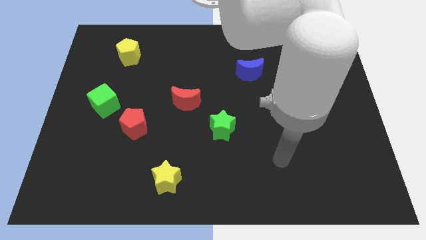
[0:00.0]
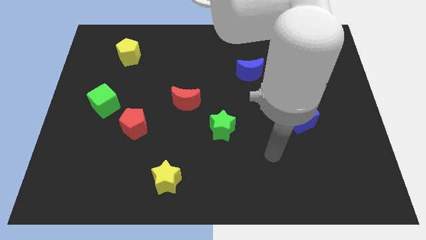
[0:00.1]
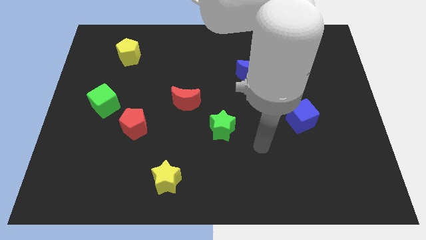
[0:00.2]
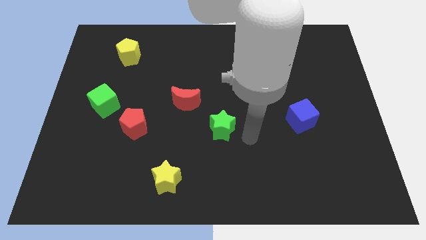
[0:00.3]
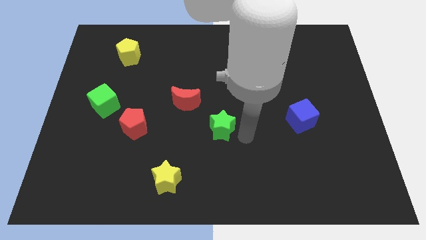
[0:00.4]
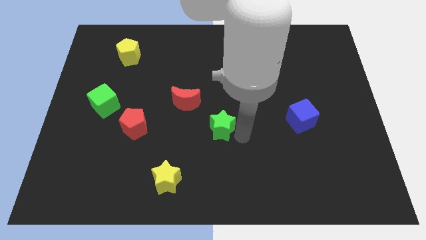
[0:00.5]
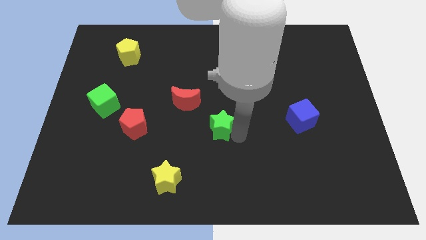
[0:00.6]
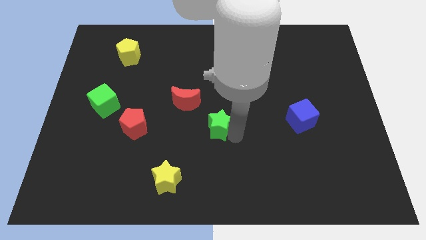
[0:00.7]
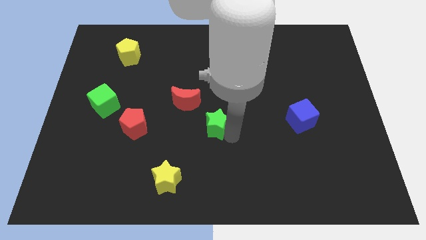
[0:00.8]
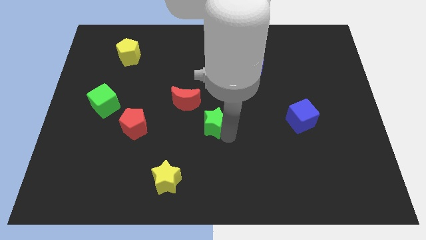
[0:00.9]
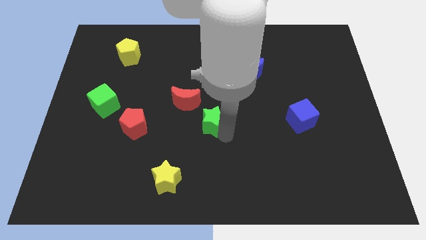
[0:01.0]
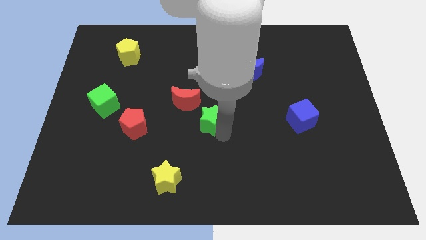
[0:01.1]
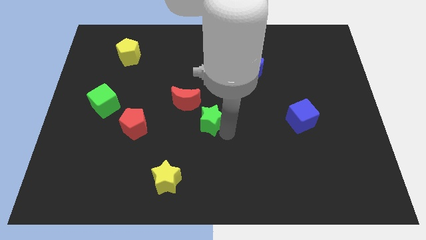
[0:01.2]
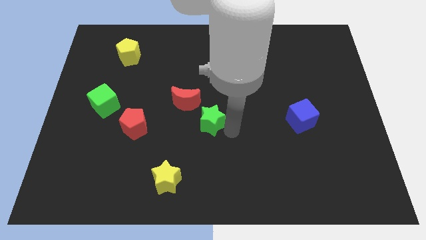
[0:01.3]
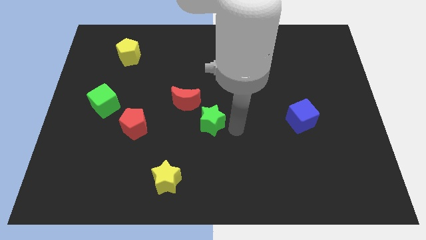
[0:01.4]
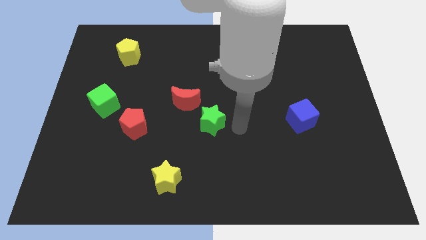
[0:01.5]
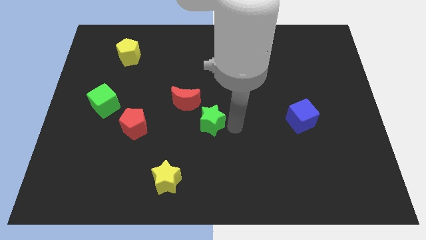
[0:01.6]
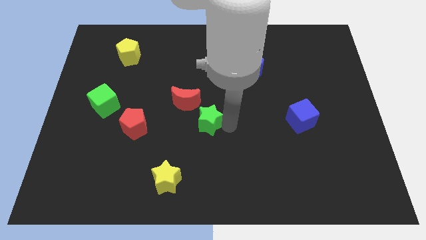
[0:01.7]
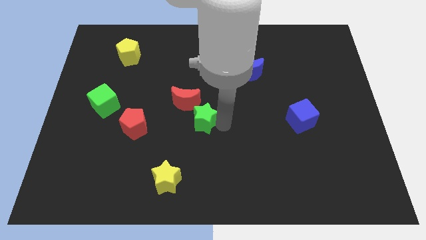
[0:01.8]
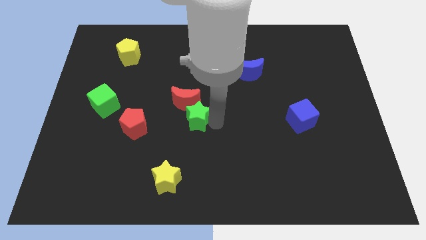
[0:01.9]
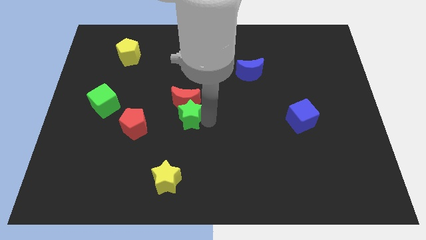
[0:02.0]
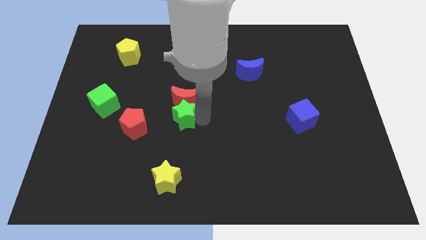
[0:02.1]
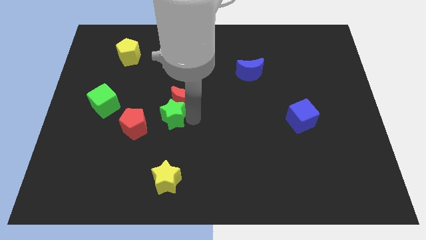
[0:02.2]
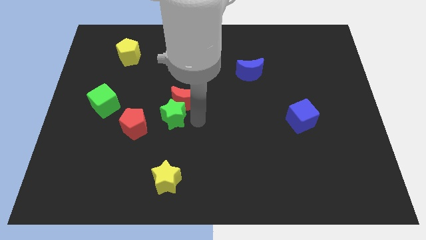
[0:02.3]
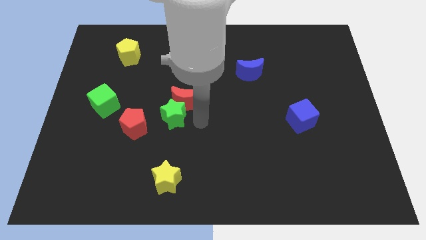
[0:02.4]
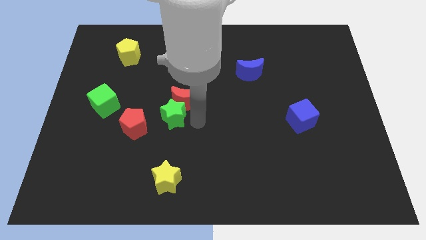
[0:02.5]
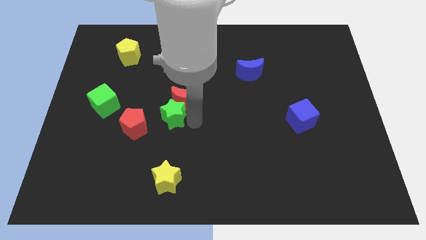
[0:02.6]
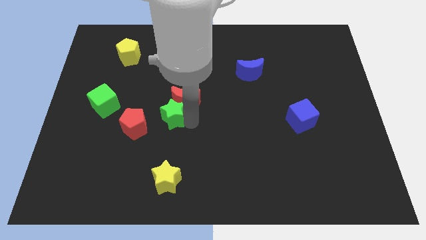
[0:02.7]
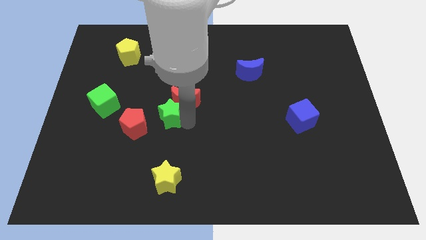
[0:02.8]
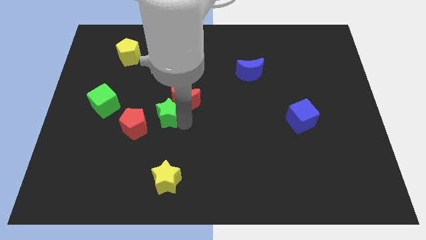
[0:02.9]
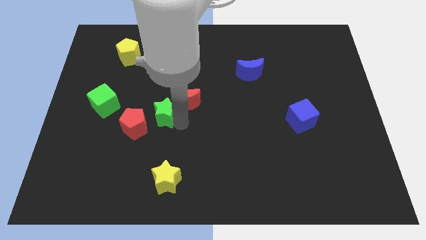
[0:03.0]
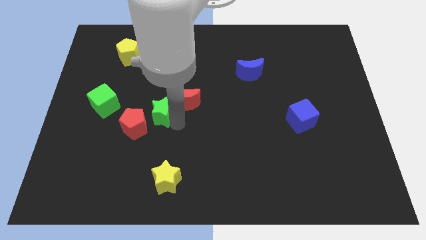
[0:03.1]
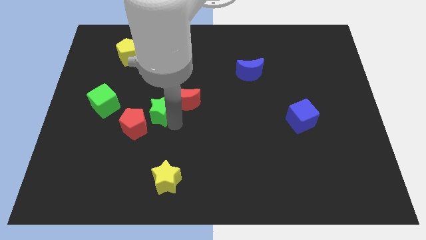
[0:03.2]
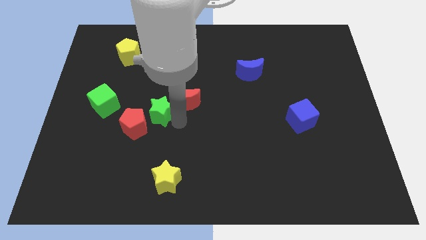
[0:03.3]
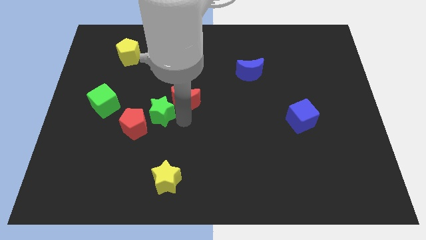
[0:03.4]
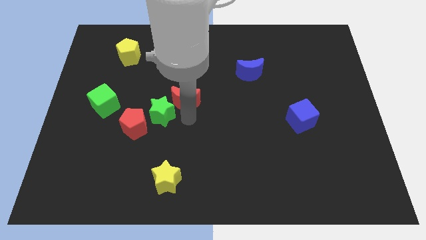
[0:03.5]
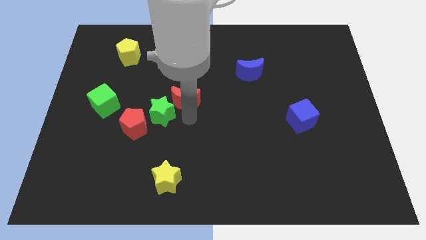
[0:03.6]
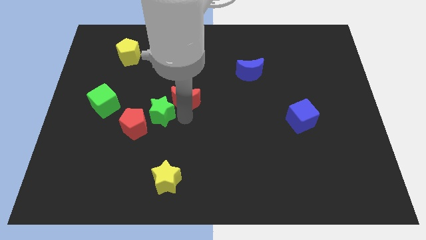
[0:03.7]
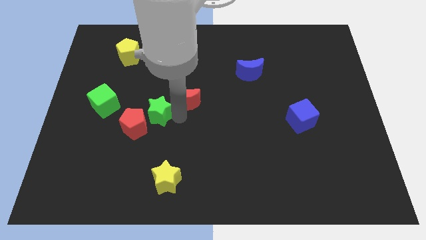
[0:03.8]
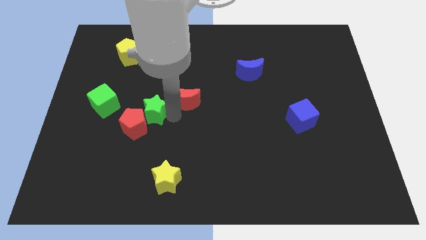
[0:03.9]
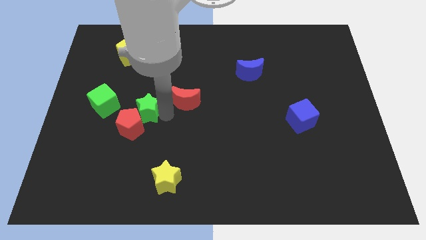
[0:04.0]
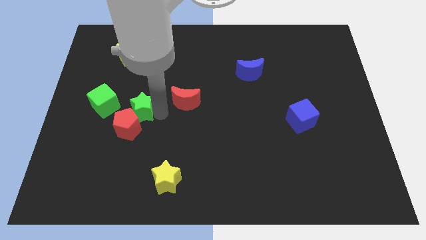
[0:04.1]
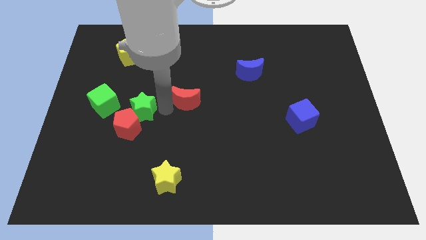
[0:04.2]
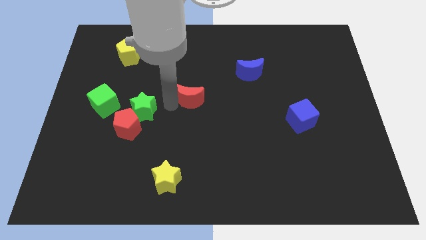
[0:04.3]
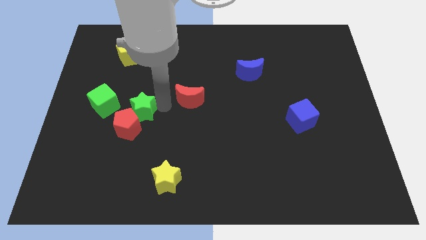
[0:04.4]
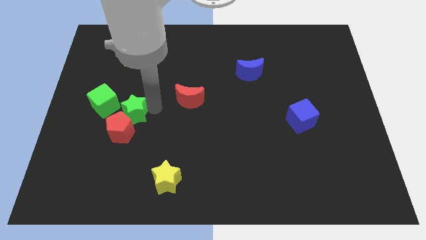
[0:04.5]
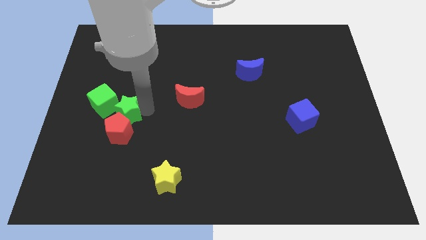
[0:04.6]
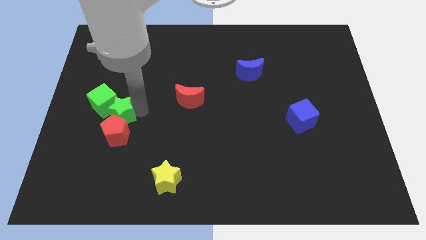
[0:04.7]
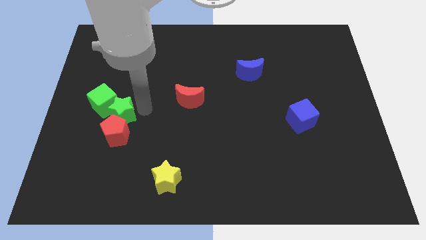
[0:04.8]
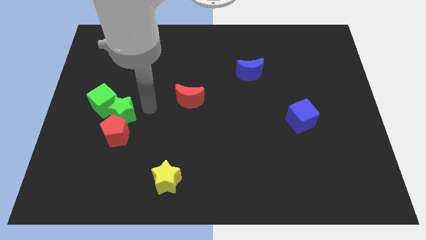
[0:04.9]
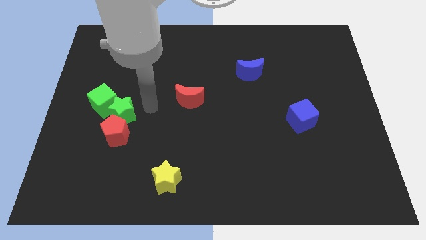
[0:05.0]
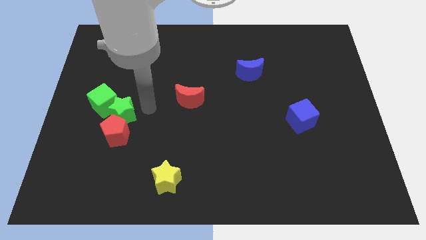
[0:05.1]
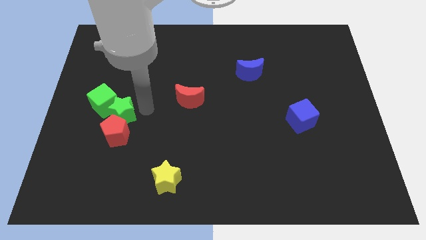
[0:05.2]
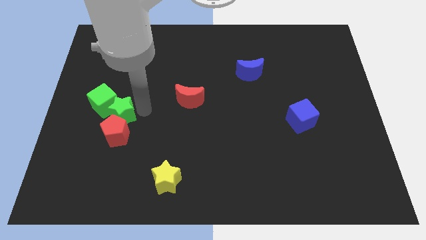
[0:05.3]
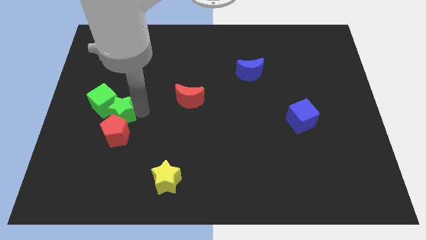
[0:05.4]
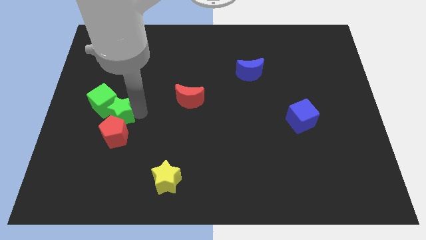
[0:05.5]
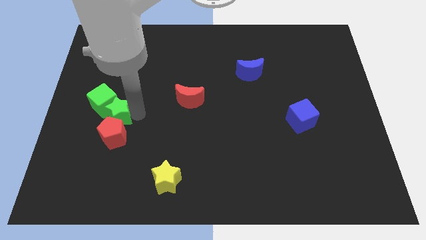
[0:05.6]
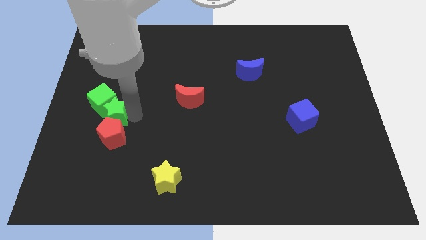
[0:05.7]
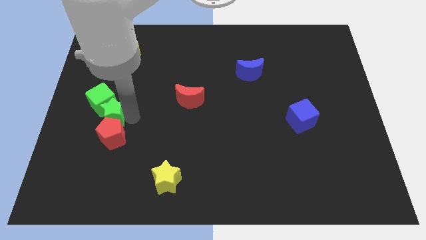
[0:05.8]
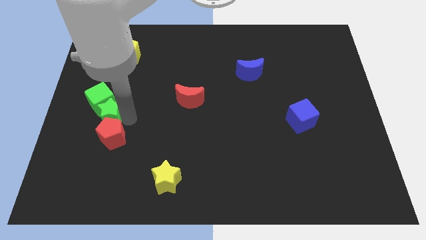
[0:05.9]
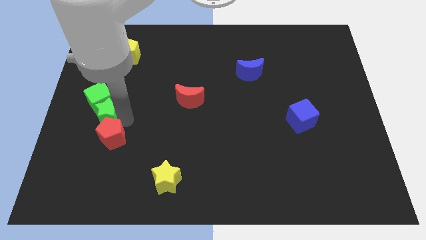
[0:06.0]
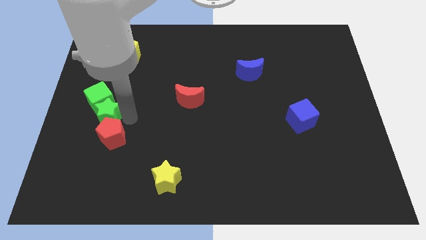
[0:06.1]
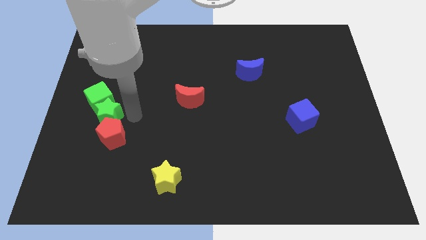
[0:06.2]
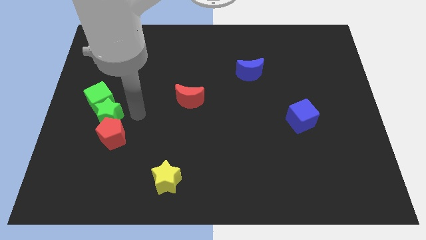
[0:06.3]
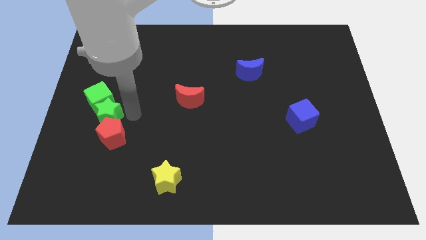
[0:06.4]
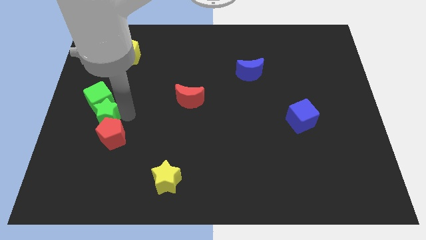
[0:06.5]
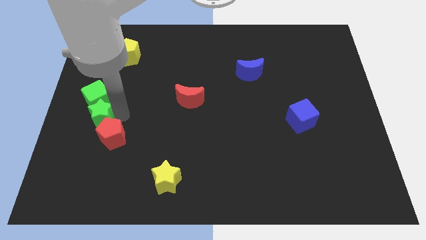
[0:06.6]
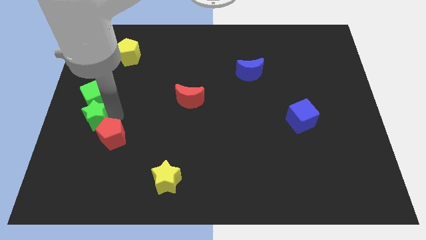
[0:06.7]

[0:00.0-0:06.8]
move the green star to the center left
